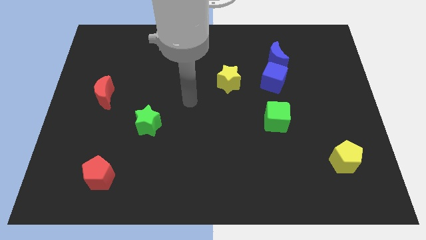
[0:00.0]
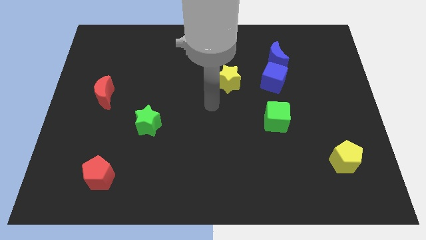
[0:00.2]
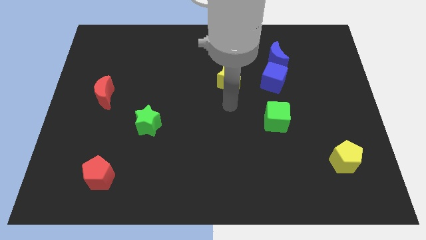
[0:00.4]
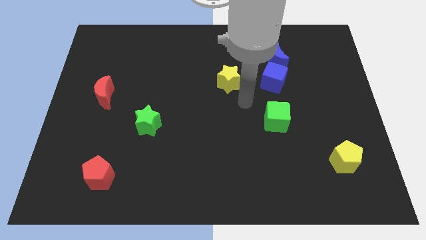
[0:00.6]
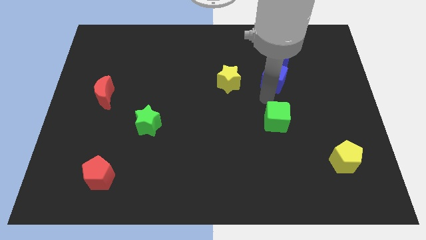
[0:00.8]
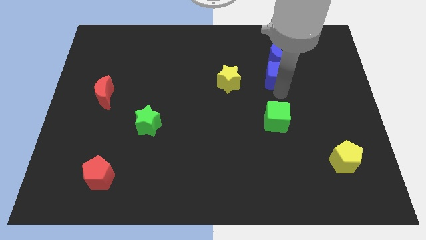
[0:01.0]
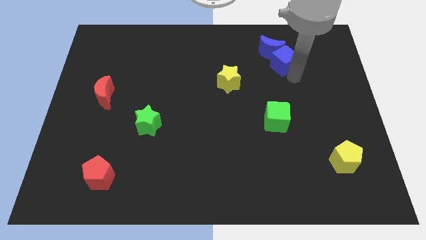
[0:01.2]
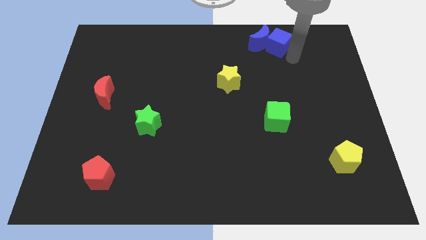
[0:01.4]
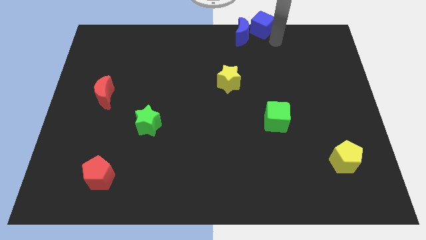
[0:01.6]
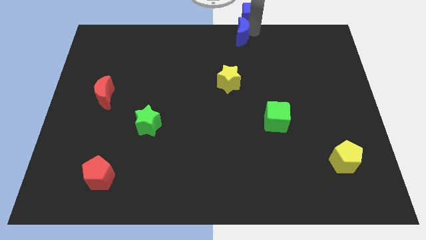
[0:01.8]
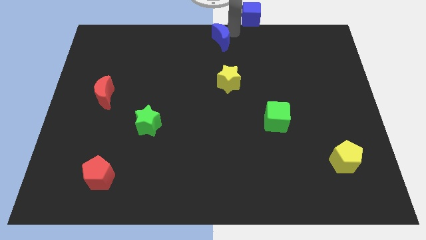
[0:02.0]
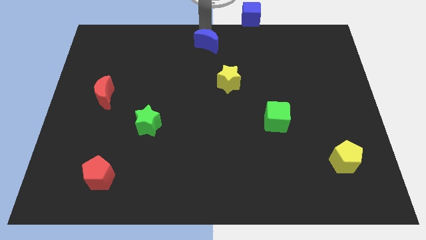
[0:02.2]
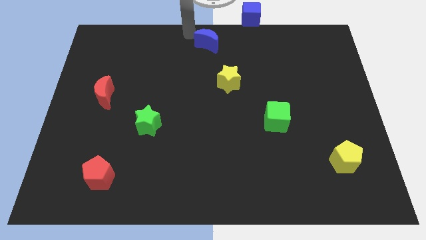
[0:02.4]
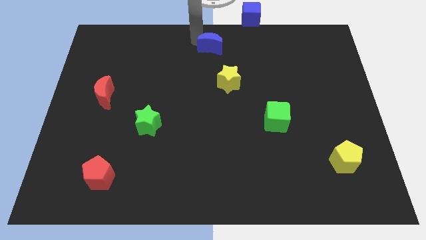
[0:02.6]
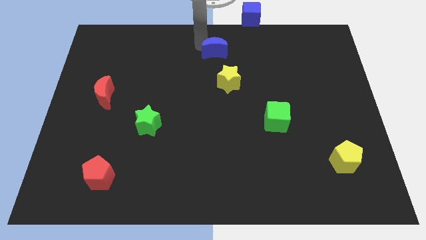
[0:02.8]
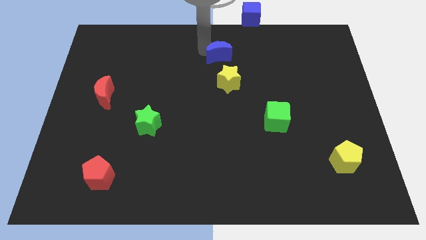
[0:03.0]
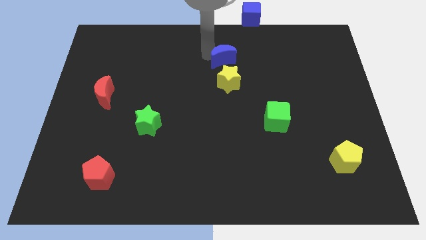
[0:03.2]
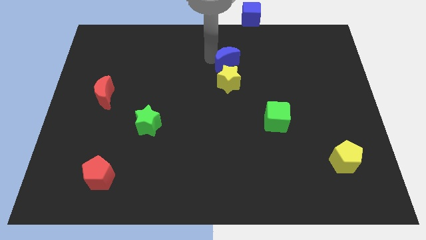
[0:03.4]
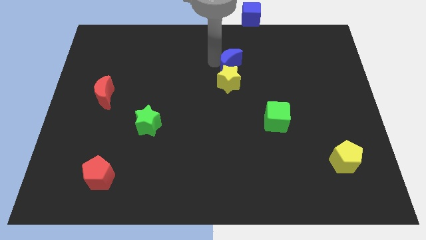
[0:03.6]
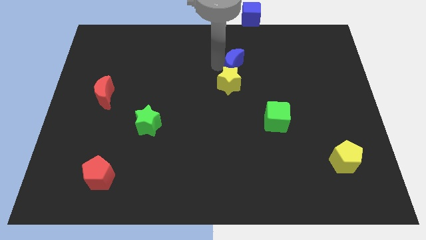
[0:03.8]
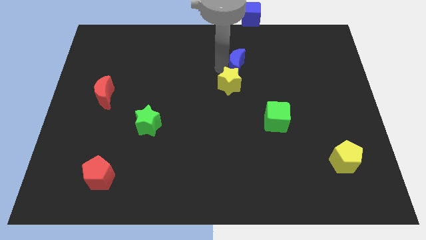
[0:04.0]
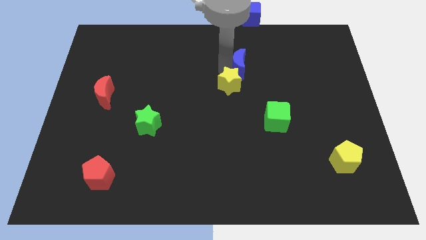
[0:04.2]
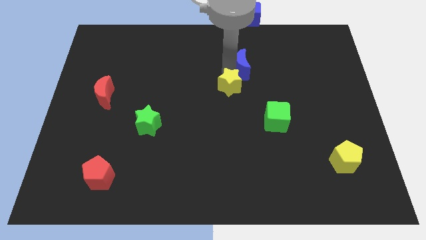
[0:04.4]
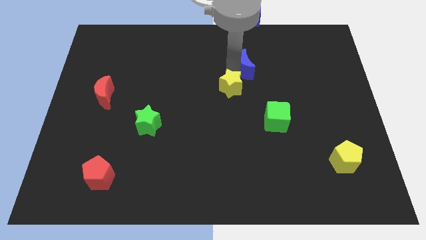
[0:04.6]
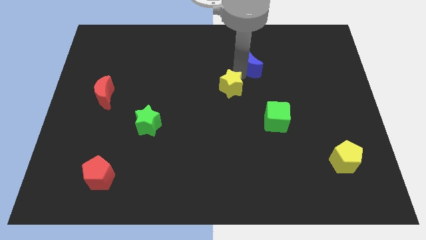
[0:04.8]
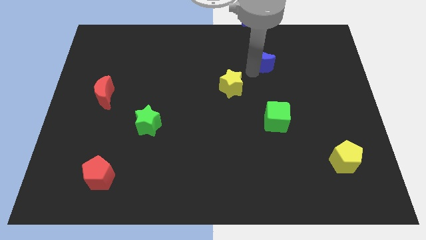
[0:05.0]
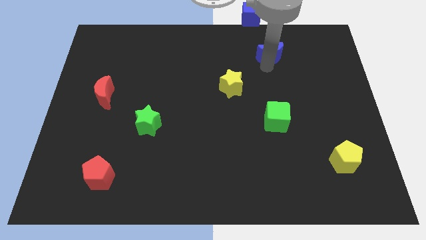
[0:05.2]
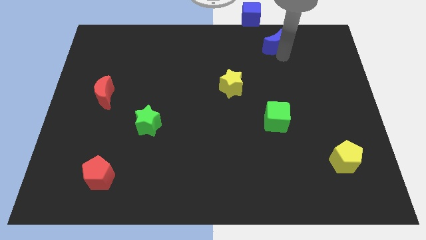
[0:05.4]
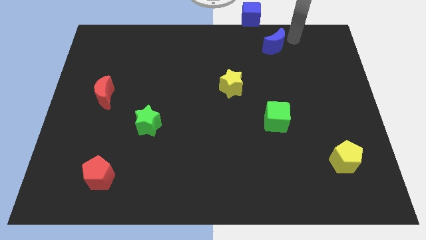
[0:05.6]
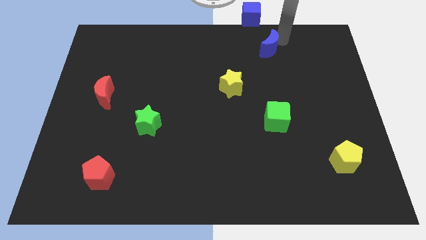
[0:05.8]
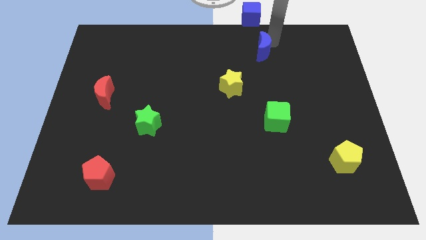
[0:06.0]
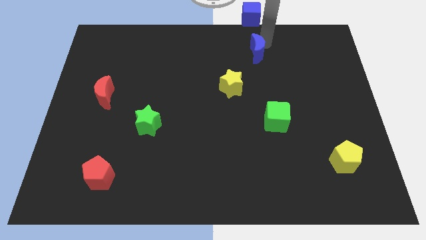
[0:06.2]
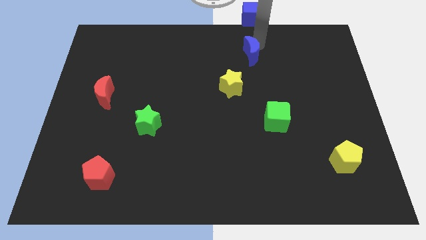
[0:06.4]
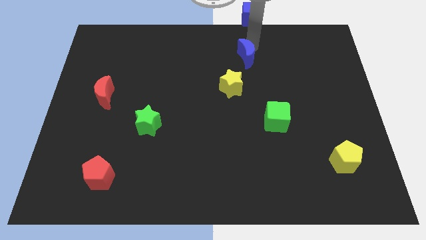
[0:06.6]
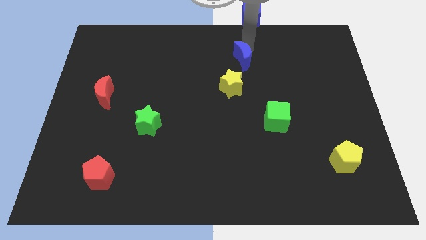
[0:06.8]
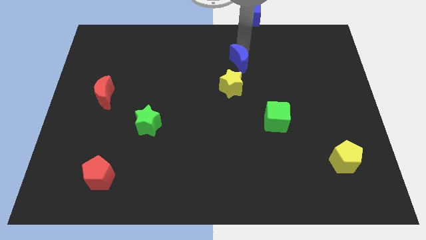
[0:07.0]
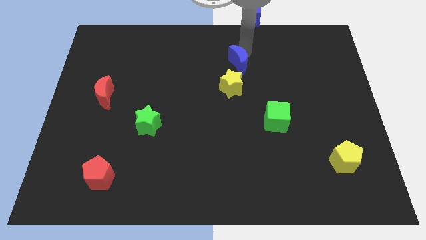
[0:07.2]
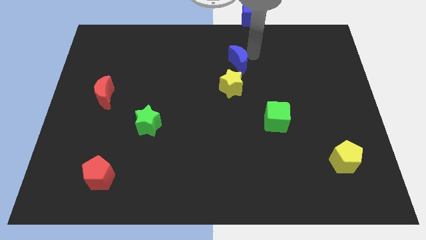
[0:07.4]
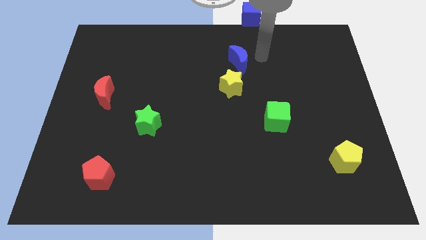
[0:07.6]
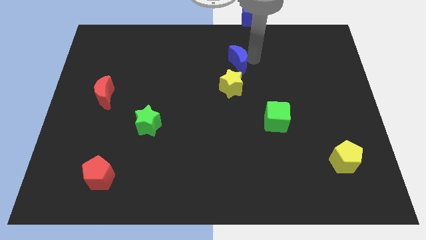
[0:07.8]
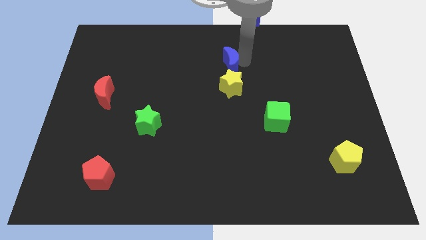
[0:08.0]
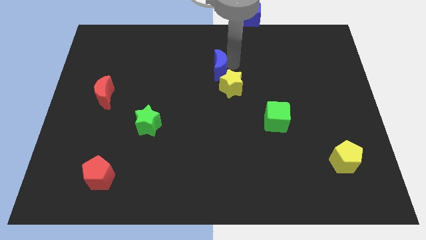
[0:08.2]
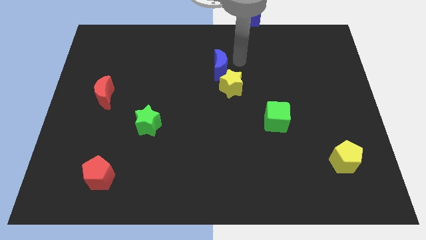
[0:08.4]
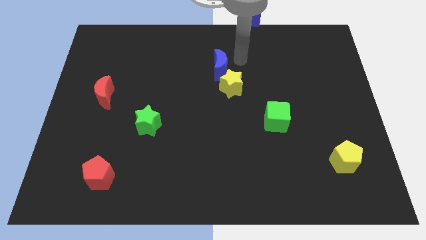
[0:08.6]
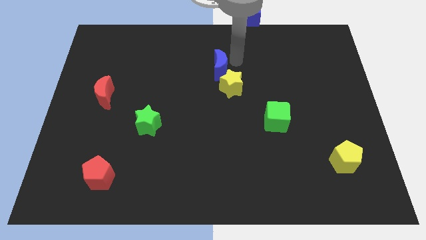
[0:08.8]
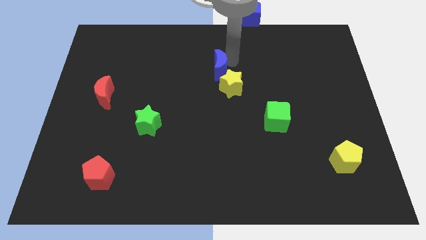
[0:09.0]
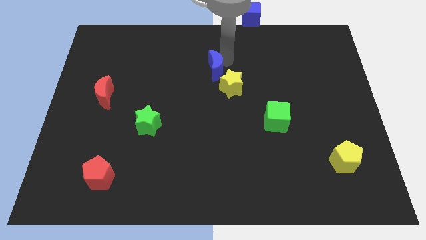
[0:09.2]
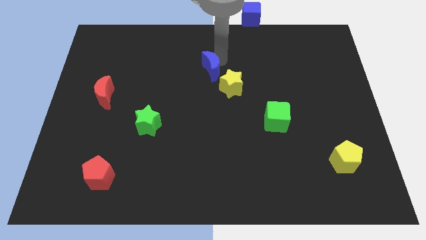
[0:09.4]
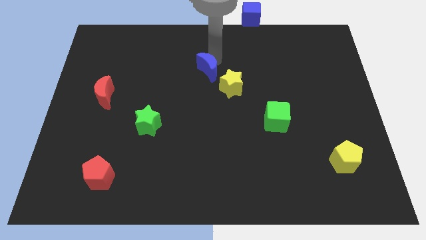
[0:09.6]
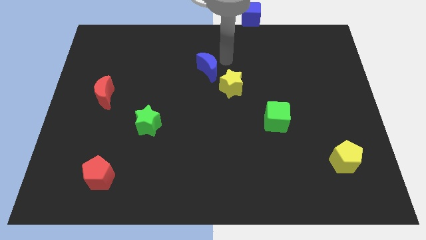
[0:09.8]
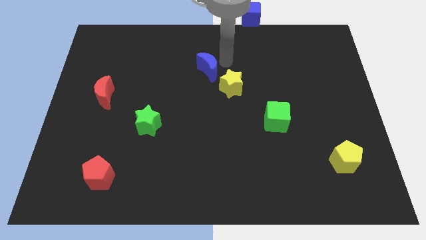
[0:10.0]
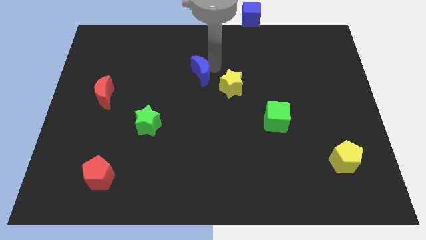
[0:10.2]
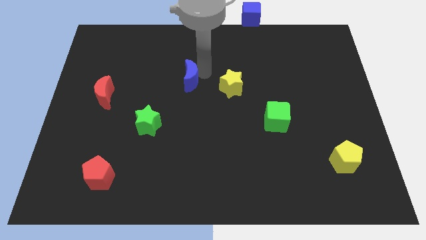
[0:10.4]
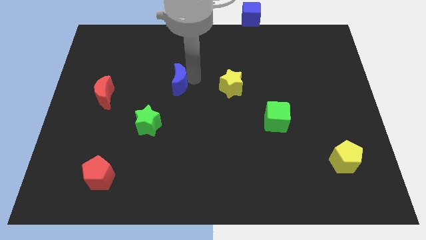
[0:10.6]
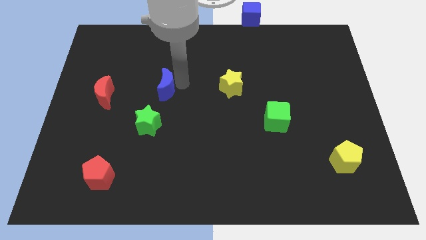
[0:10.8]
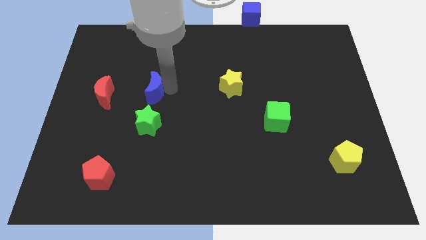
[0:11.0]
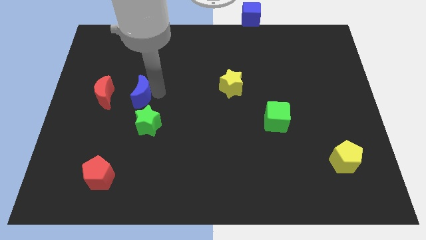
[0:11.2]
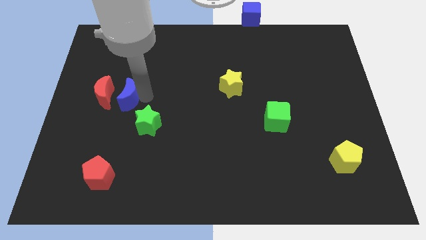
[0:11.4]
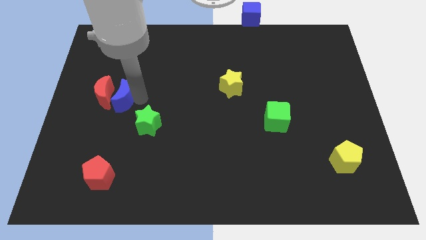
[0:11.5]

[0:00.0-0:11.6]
put the blue moon to the red moon

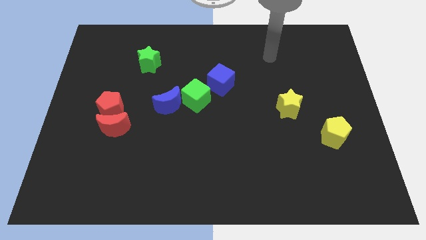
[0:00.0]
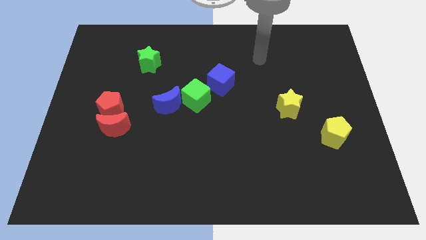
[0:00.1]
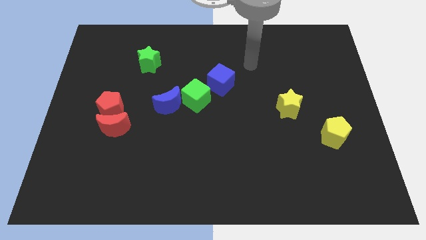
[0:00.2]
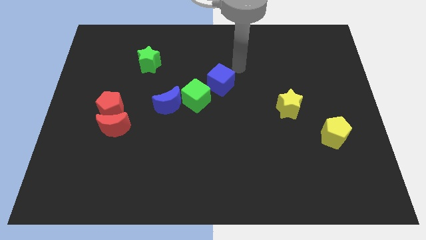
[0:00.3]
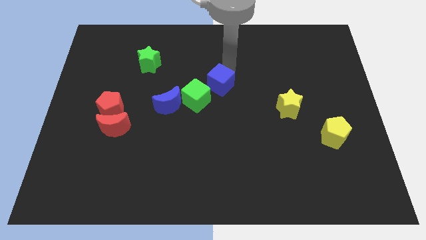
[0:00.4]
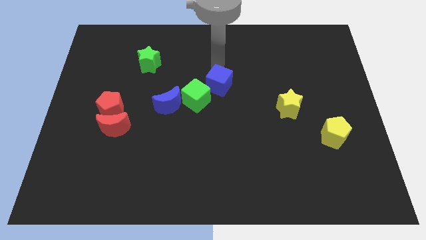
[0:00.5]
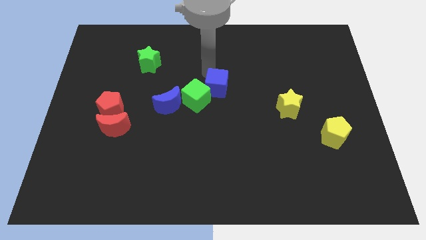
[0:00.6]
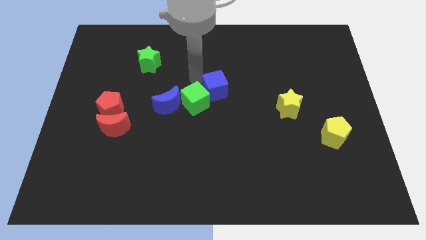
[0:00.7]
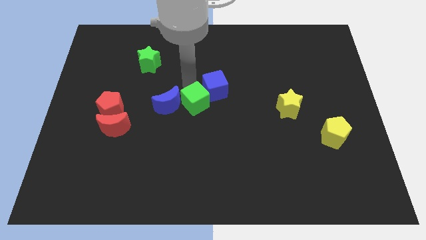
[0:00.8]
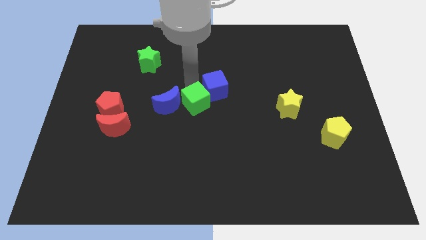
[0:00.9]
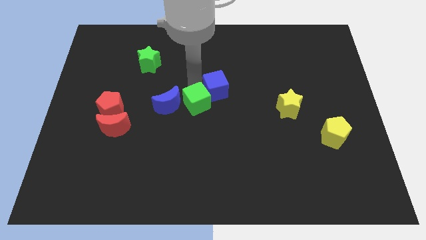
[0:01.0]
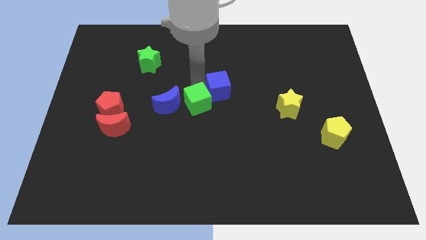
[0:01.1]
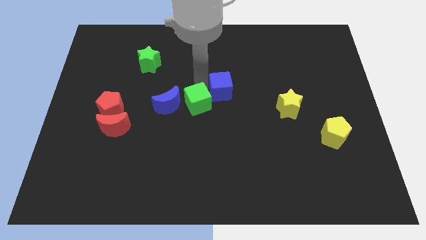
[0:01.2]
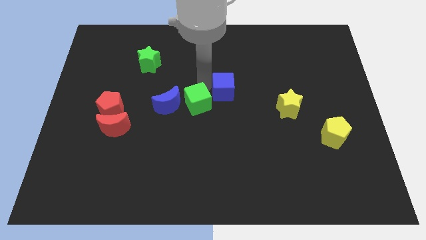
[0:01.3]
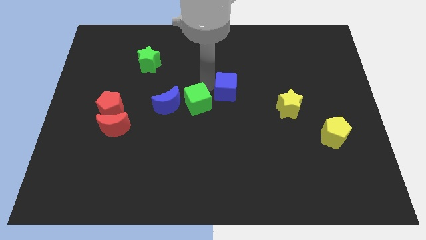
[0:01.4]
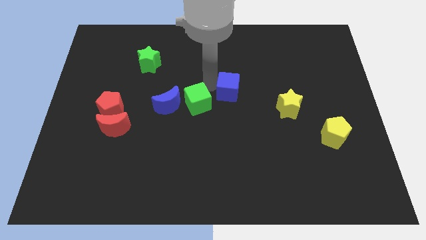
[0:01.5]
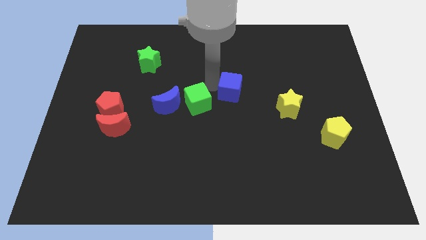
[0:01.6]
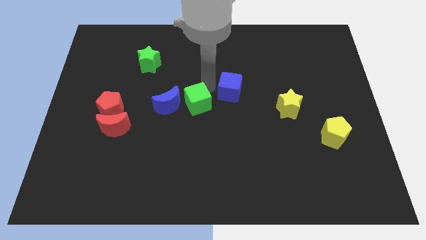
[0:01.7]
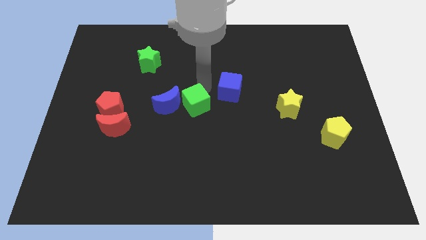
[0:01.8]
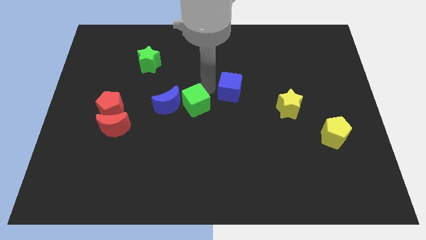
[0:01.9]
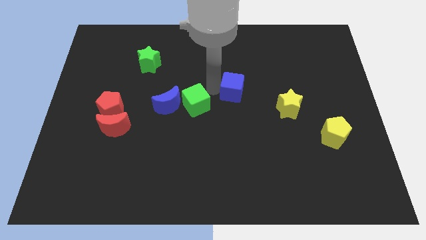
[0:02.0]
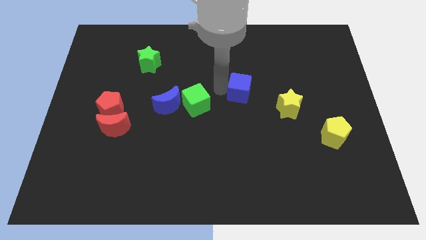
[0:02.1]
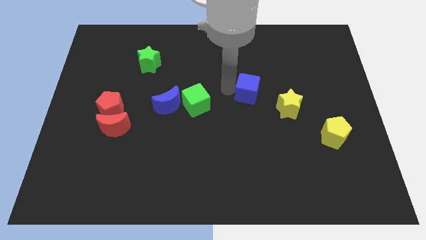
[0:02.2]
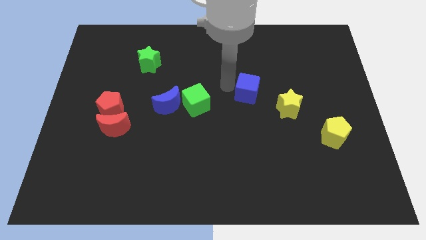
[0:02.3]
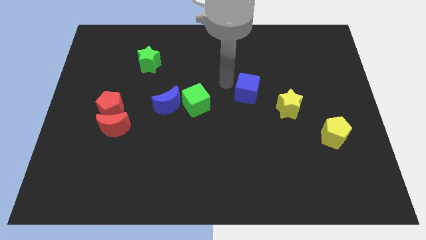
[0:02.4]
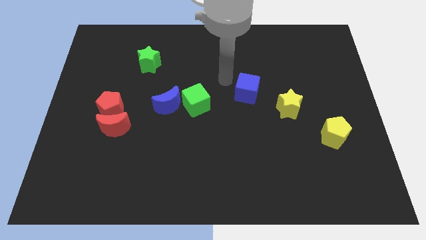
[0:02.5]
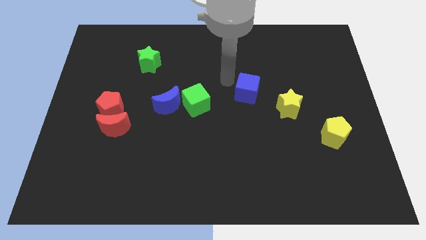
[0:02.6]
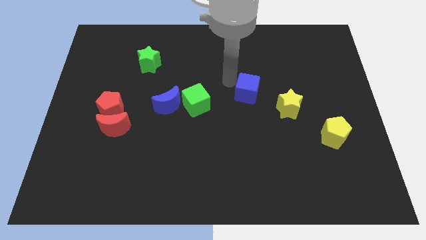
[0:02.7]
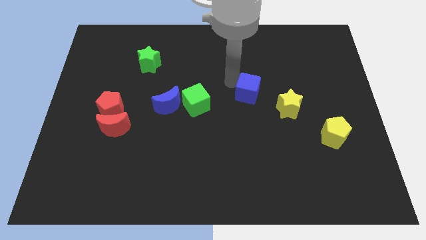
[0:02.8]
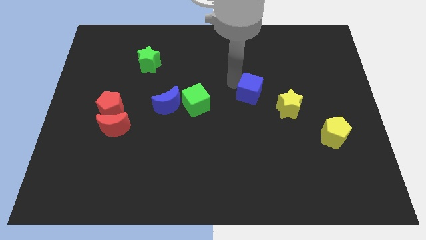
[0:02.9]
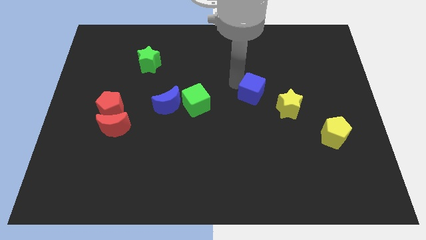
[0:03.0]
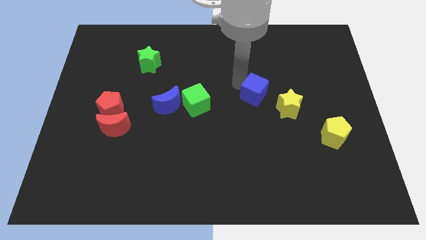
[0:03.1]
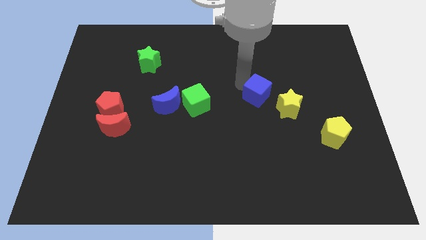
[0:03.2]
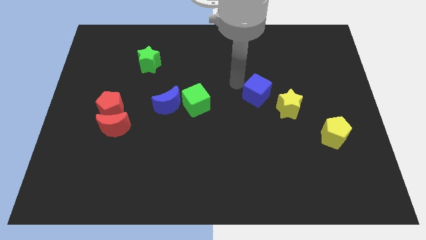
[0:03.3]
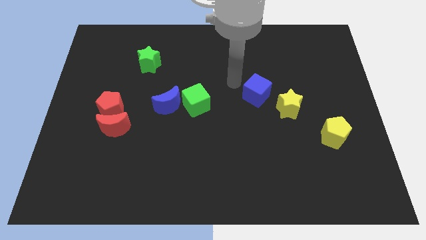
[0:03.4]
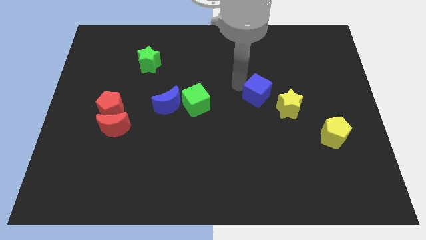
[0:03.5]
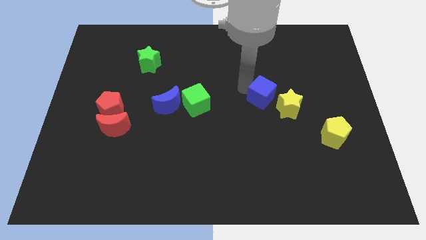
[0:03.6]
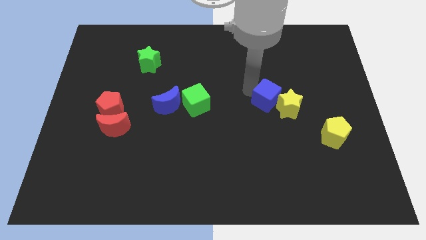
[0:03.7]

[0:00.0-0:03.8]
push the blue cube close to the yellow star
